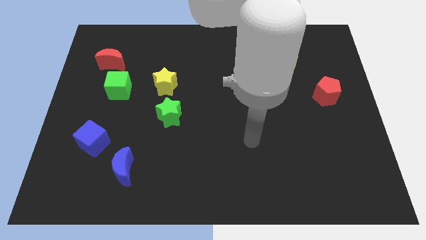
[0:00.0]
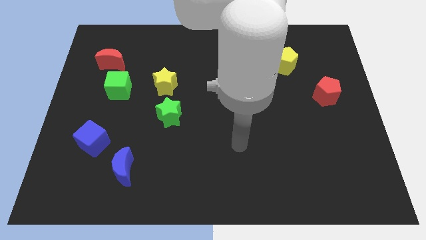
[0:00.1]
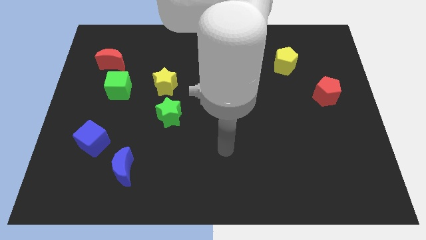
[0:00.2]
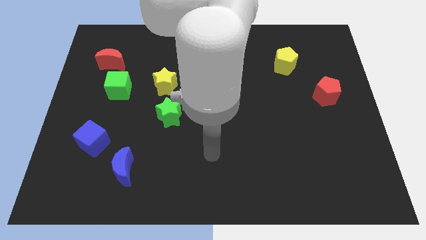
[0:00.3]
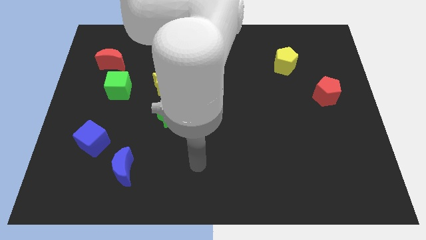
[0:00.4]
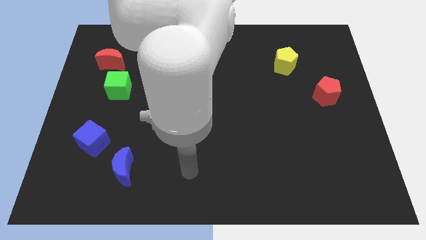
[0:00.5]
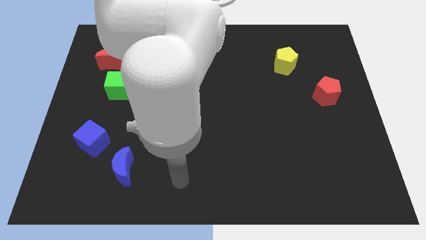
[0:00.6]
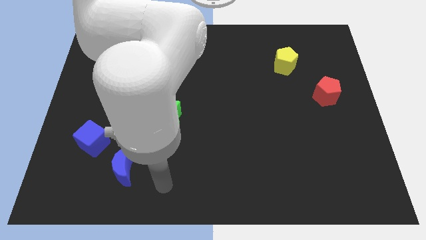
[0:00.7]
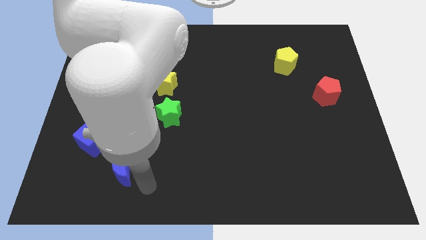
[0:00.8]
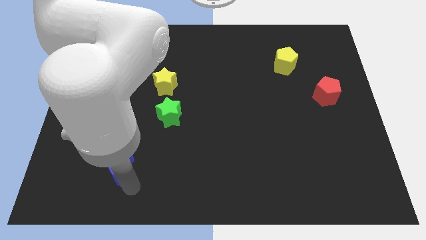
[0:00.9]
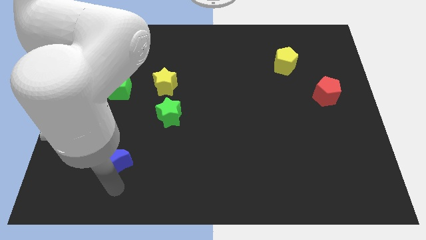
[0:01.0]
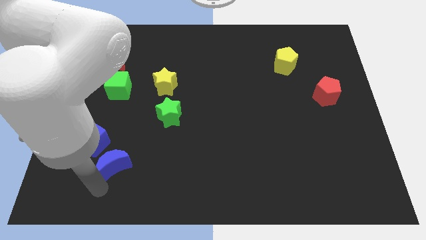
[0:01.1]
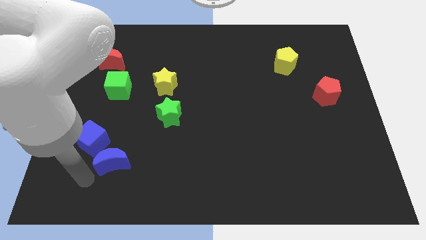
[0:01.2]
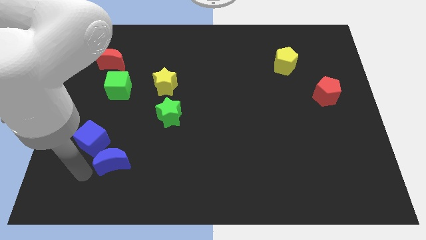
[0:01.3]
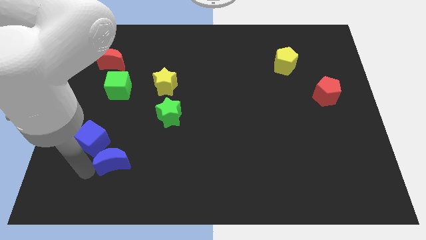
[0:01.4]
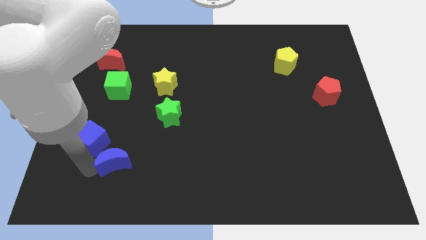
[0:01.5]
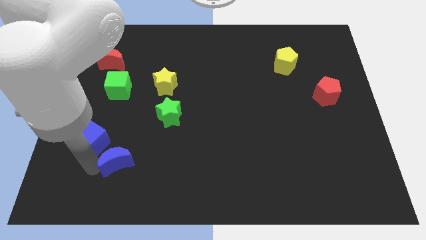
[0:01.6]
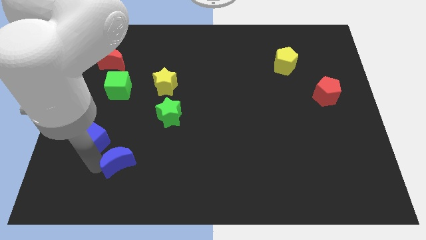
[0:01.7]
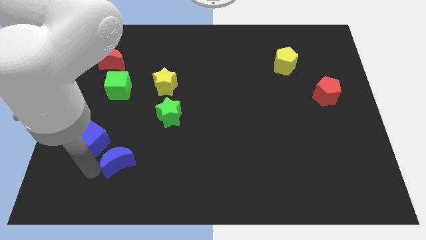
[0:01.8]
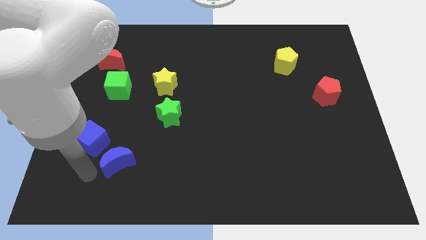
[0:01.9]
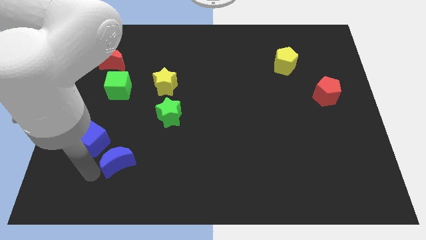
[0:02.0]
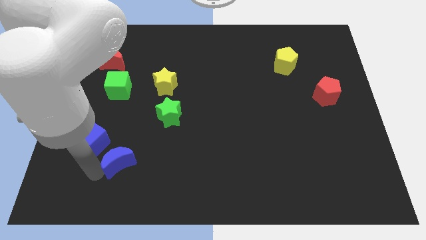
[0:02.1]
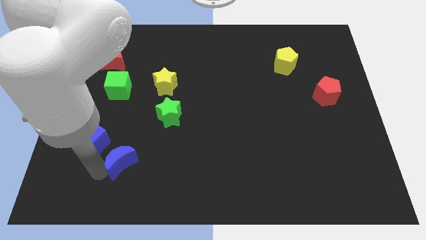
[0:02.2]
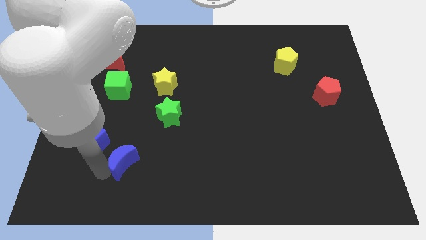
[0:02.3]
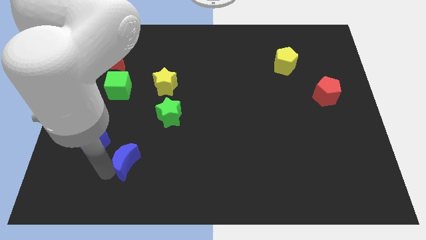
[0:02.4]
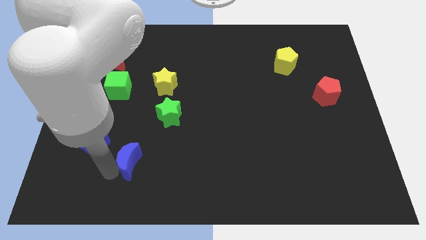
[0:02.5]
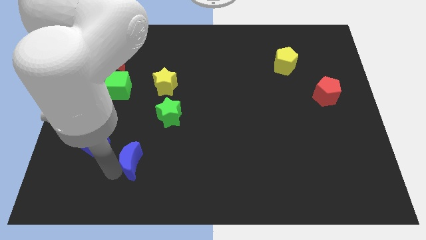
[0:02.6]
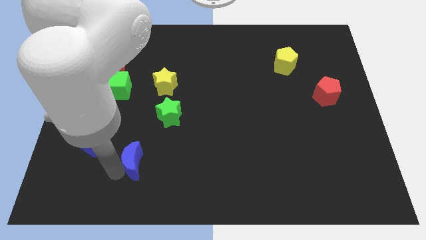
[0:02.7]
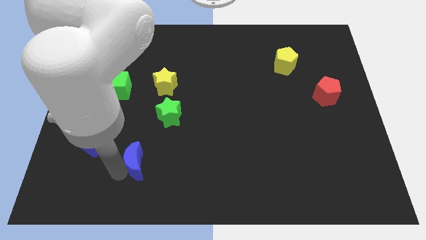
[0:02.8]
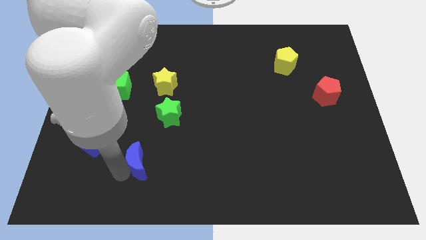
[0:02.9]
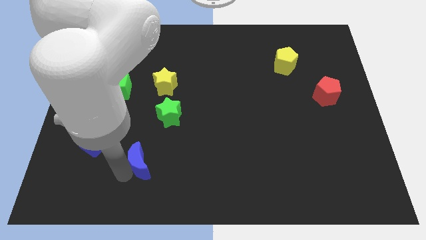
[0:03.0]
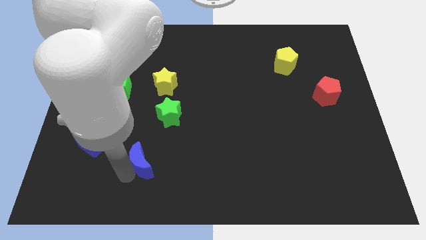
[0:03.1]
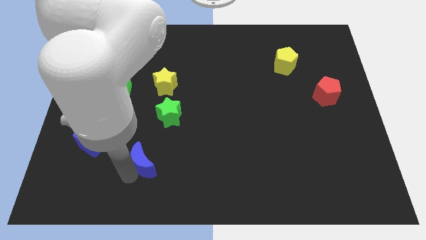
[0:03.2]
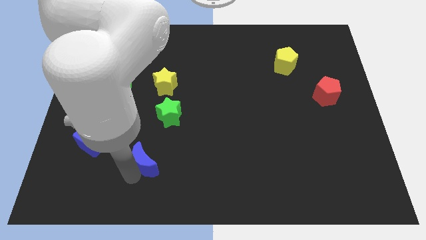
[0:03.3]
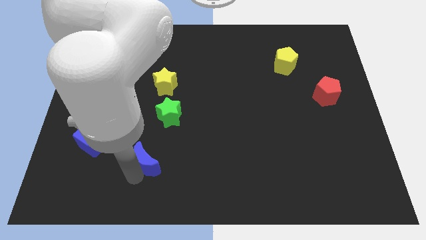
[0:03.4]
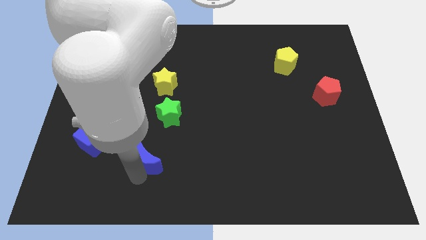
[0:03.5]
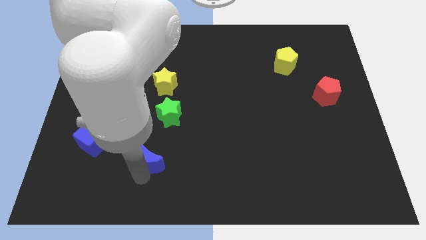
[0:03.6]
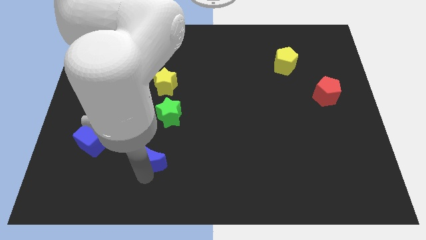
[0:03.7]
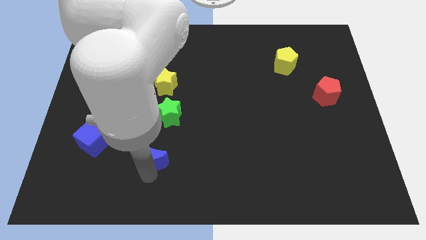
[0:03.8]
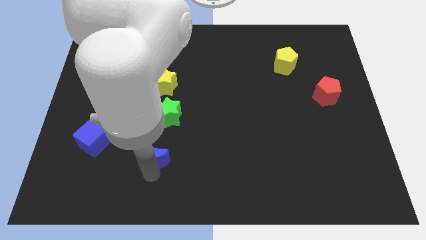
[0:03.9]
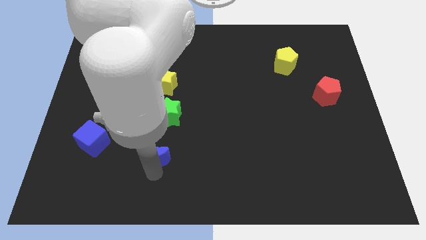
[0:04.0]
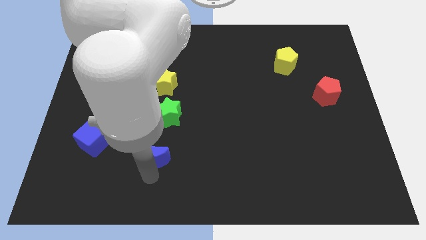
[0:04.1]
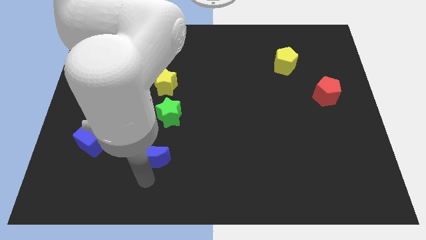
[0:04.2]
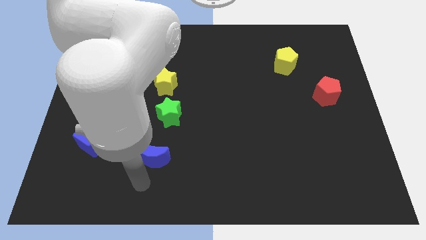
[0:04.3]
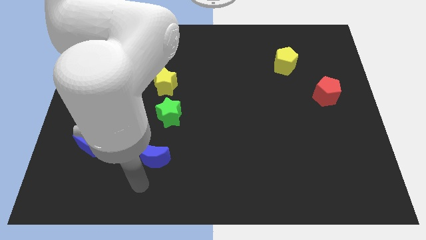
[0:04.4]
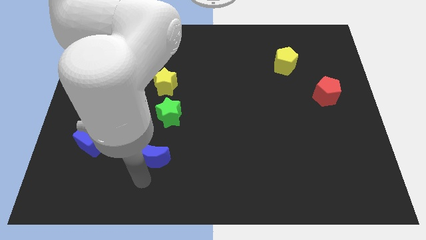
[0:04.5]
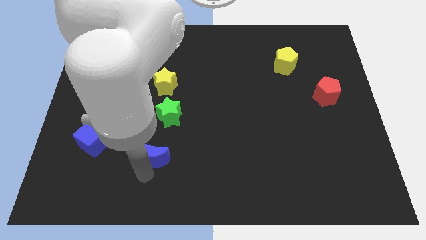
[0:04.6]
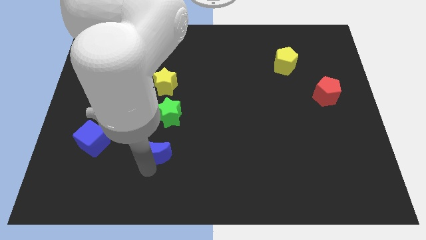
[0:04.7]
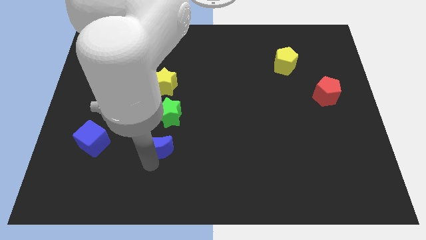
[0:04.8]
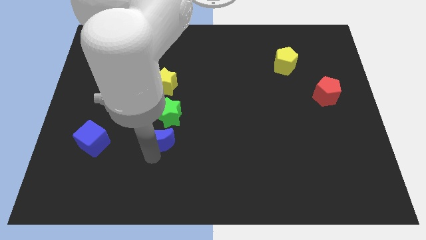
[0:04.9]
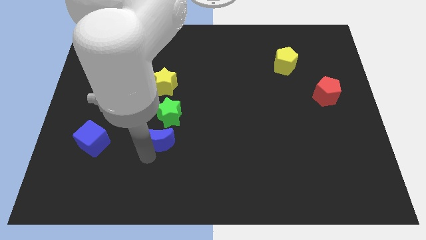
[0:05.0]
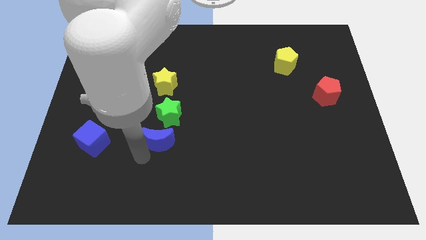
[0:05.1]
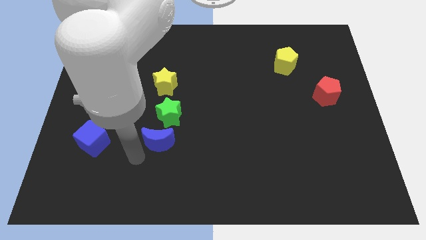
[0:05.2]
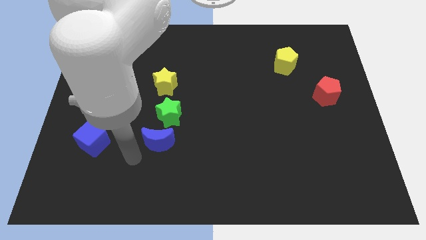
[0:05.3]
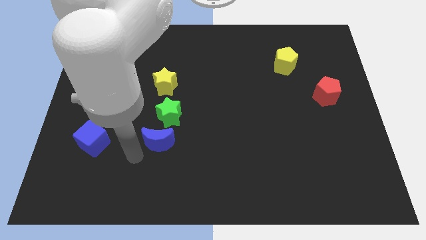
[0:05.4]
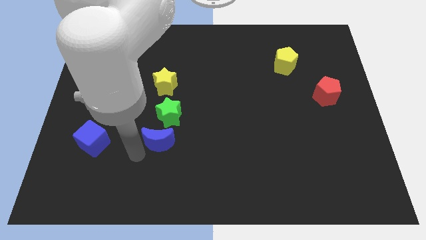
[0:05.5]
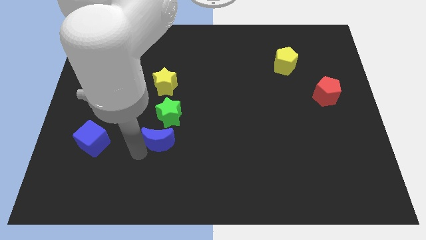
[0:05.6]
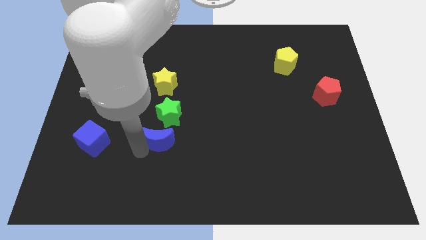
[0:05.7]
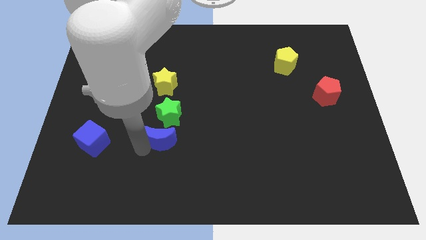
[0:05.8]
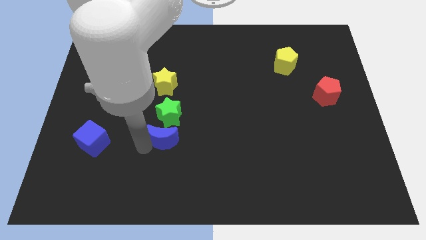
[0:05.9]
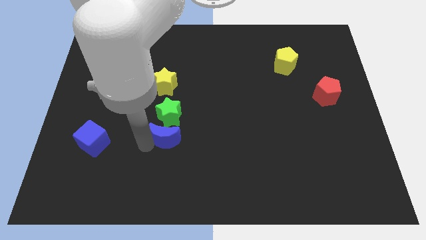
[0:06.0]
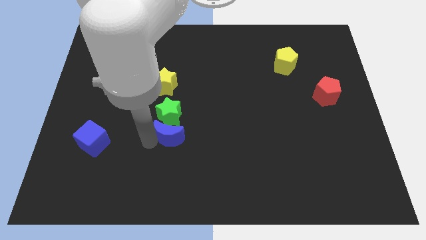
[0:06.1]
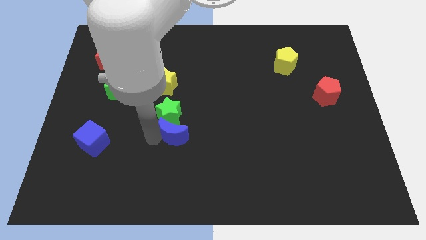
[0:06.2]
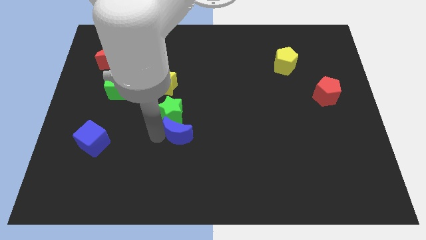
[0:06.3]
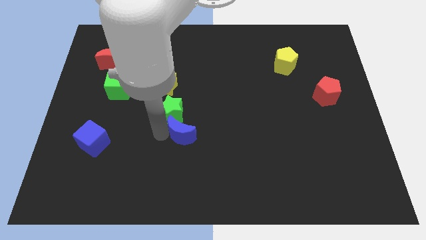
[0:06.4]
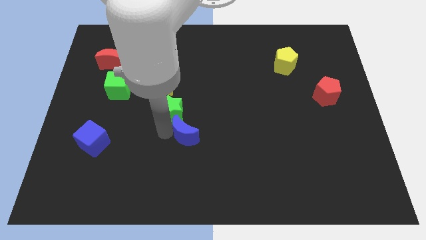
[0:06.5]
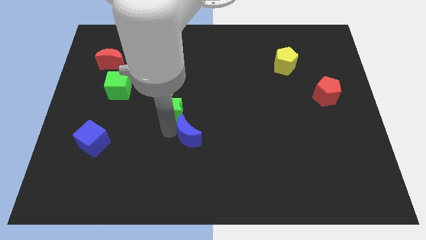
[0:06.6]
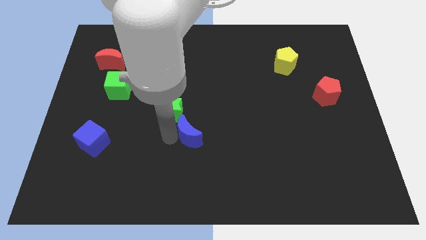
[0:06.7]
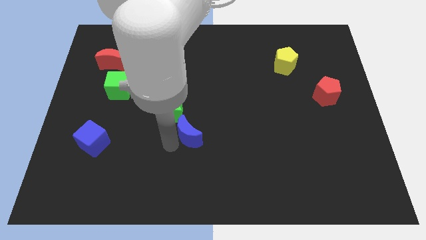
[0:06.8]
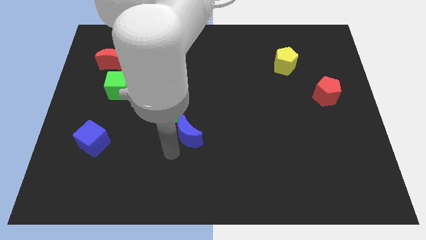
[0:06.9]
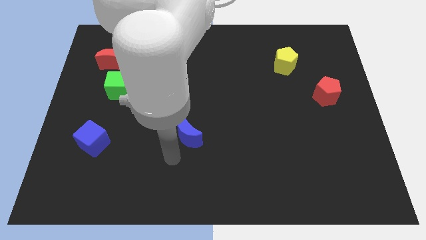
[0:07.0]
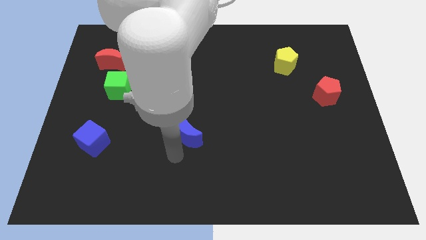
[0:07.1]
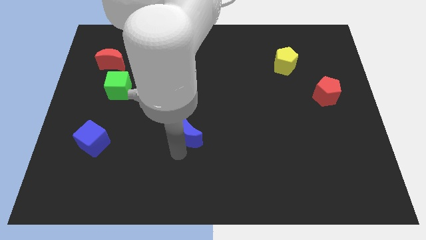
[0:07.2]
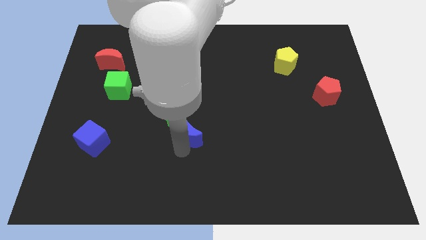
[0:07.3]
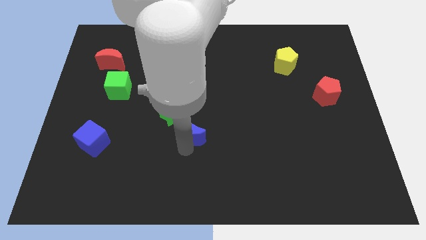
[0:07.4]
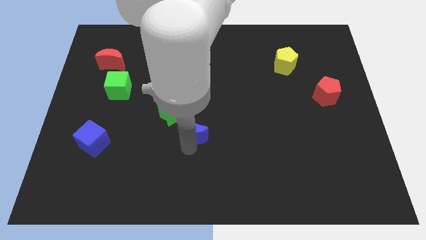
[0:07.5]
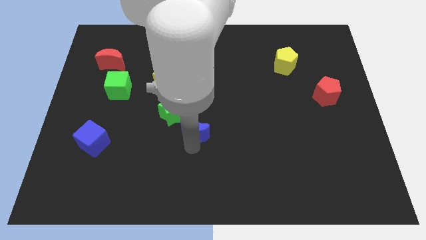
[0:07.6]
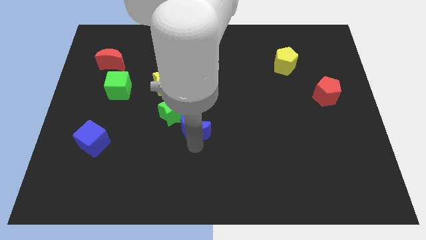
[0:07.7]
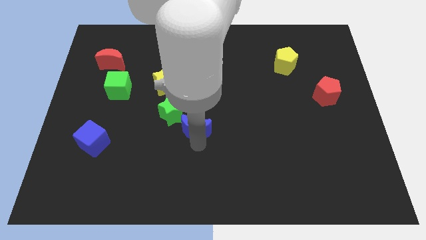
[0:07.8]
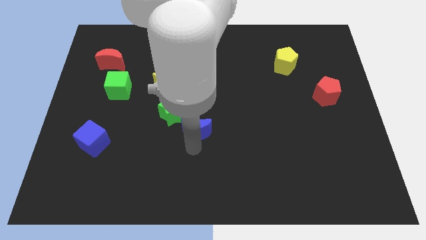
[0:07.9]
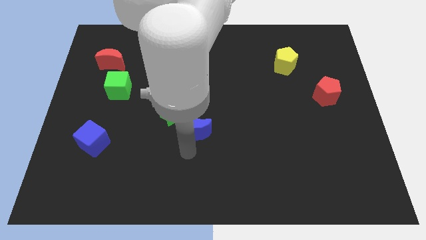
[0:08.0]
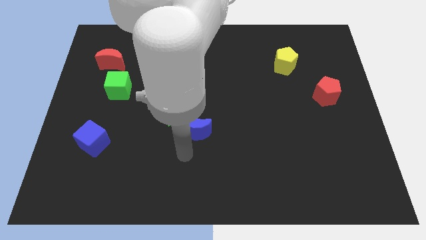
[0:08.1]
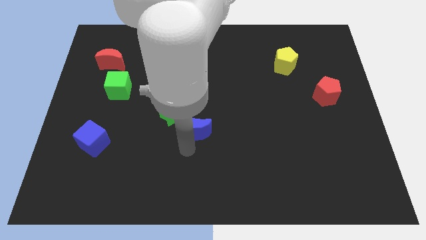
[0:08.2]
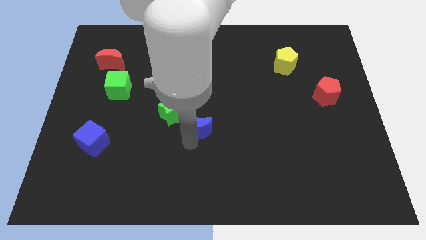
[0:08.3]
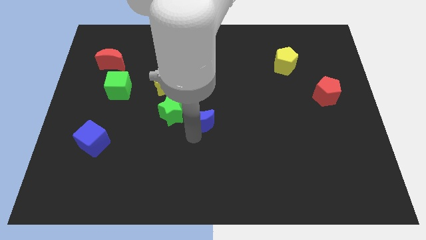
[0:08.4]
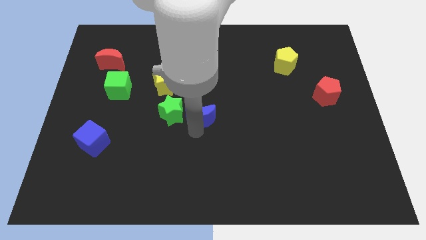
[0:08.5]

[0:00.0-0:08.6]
slide the blue moon up and then right
